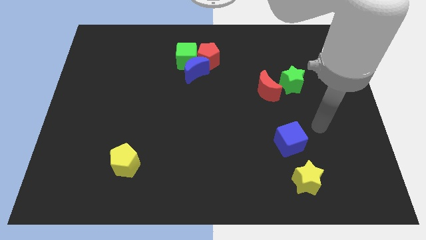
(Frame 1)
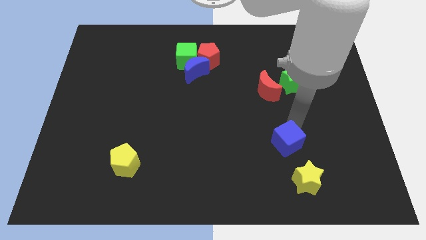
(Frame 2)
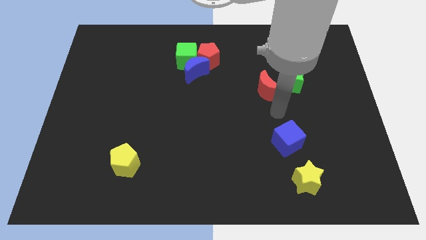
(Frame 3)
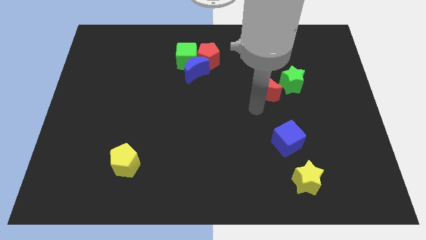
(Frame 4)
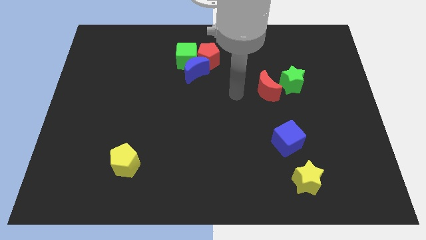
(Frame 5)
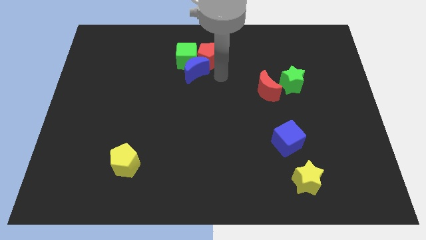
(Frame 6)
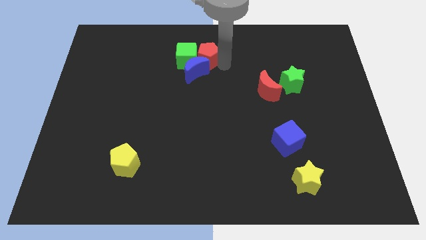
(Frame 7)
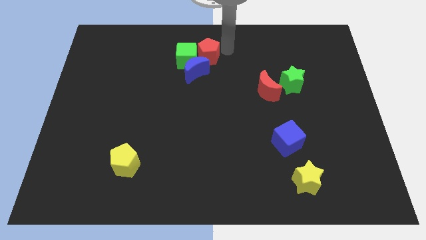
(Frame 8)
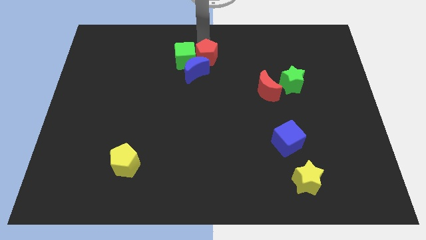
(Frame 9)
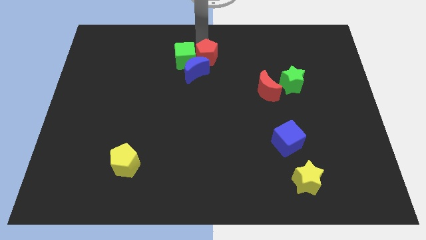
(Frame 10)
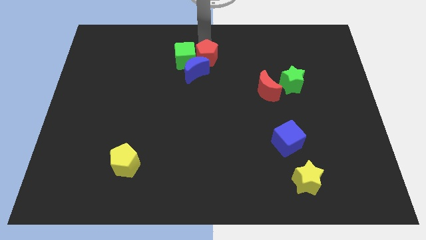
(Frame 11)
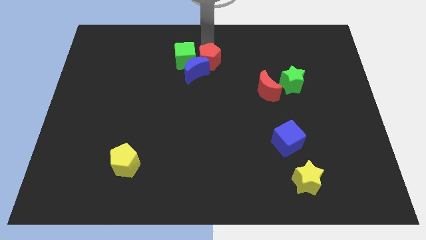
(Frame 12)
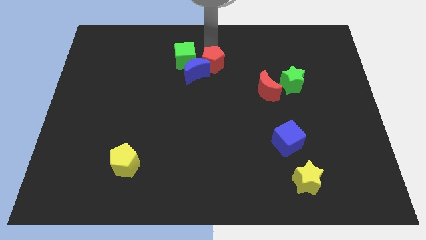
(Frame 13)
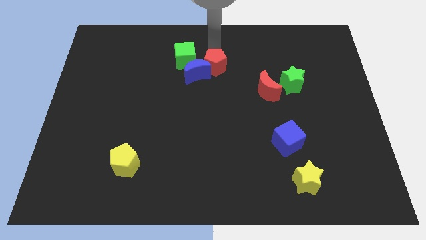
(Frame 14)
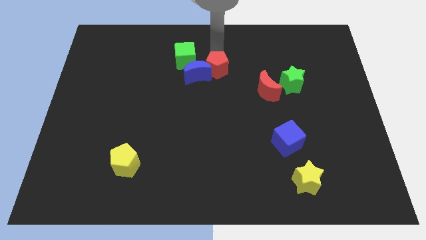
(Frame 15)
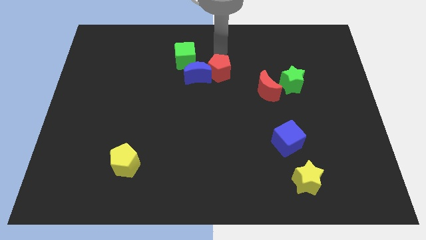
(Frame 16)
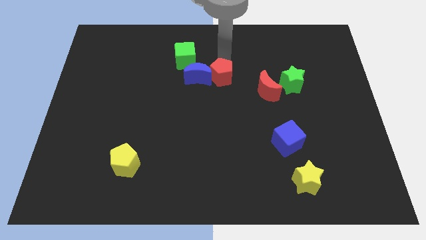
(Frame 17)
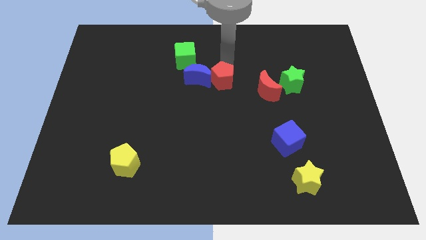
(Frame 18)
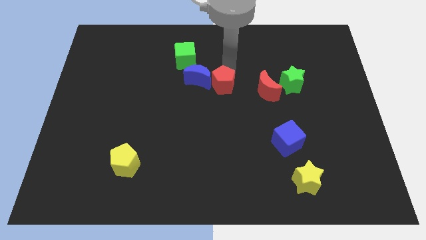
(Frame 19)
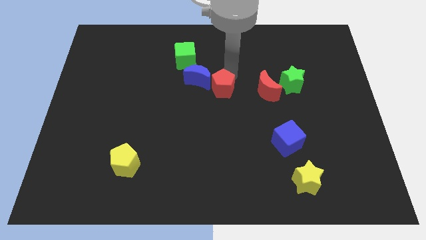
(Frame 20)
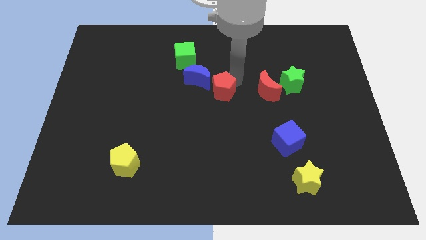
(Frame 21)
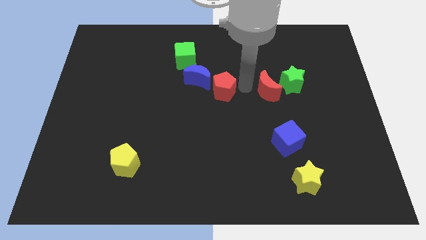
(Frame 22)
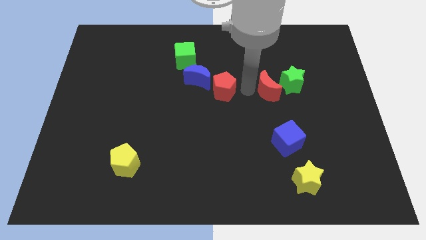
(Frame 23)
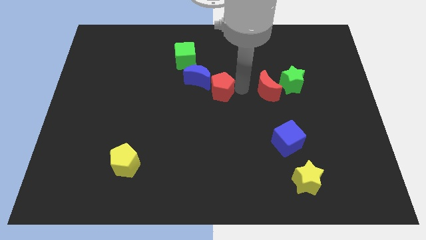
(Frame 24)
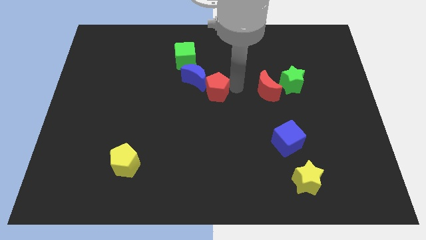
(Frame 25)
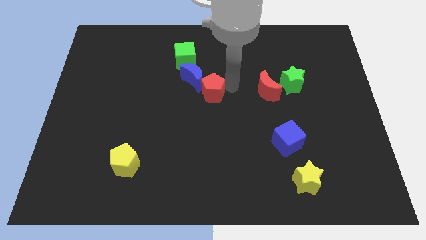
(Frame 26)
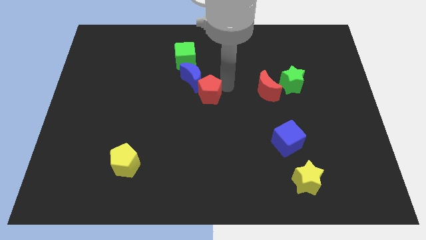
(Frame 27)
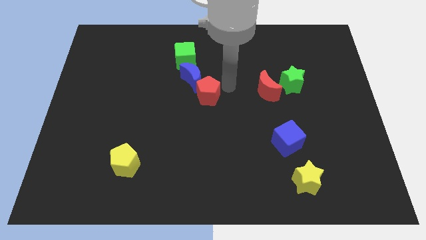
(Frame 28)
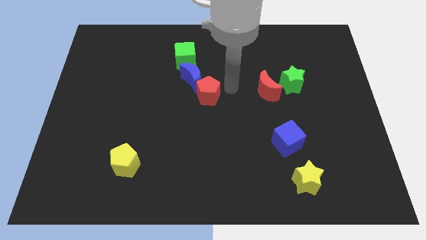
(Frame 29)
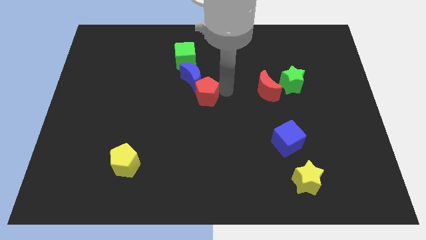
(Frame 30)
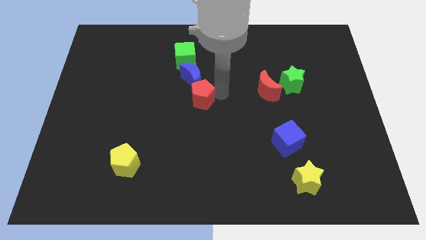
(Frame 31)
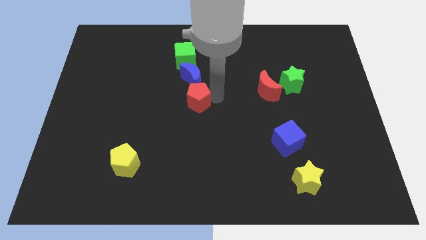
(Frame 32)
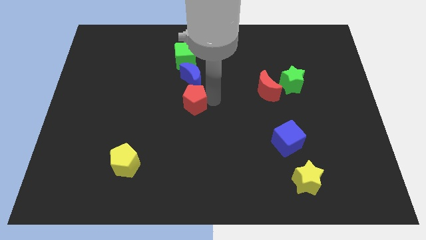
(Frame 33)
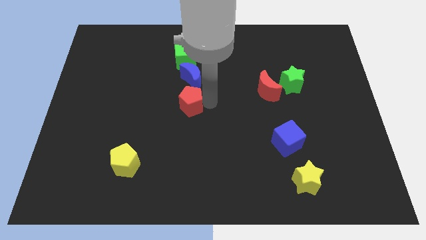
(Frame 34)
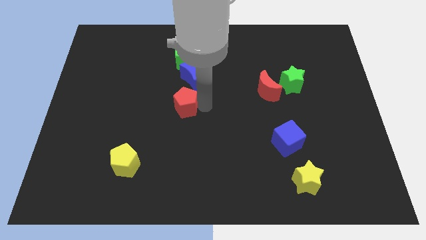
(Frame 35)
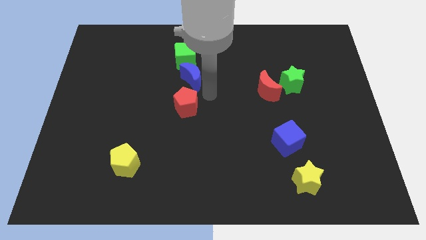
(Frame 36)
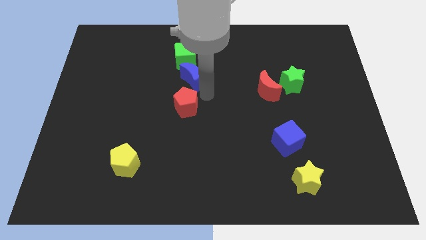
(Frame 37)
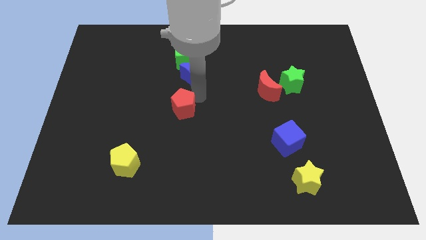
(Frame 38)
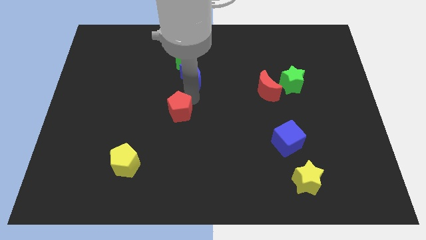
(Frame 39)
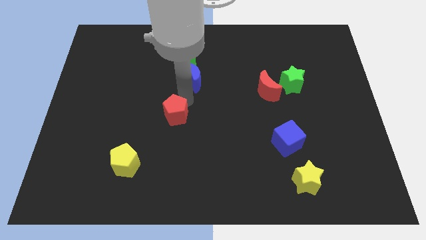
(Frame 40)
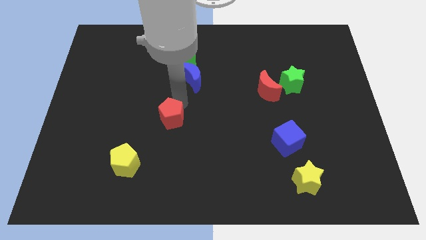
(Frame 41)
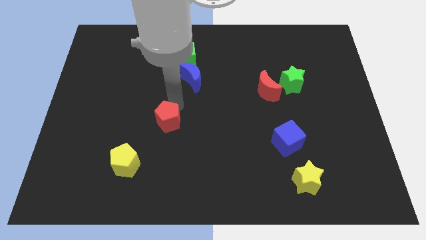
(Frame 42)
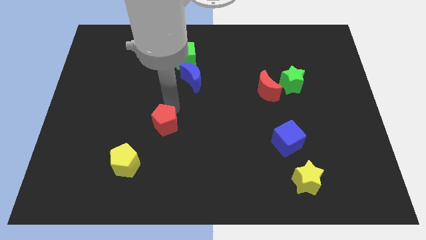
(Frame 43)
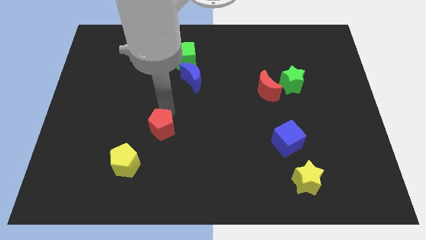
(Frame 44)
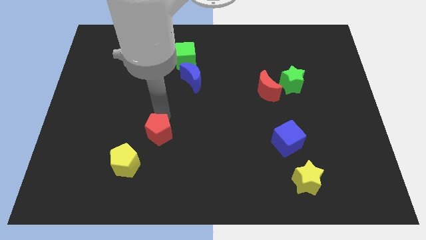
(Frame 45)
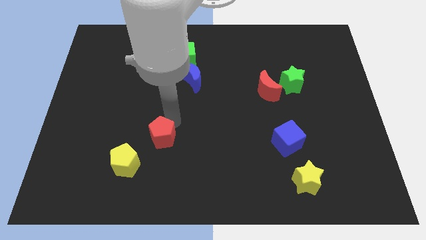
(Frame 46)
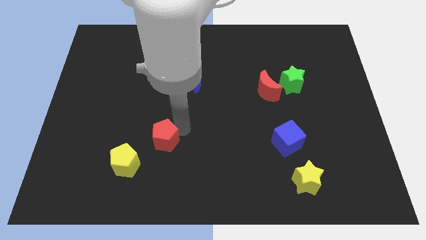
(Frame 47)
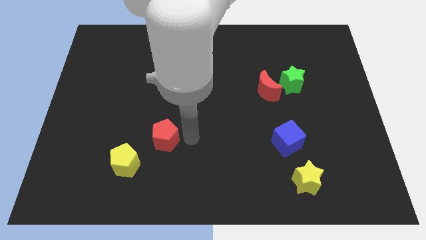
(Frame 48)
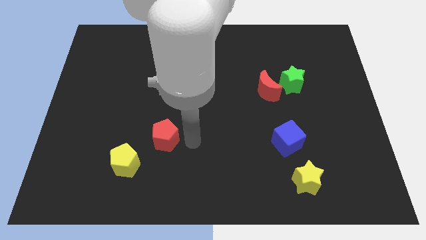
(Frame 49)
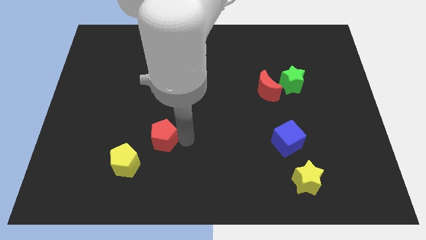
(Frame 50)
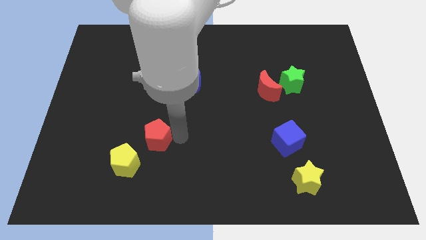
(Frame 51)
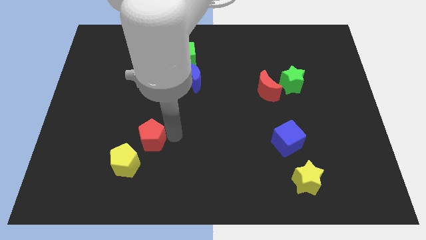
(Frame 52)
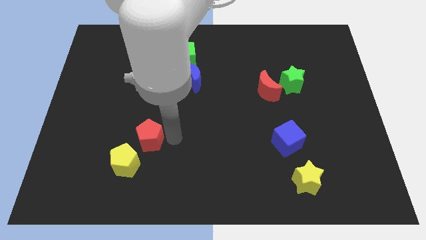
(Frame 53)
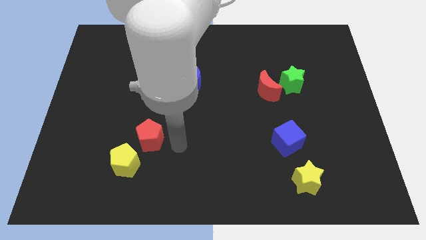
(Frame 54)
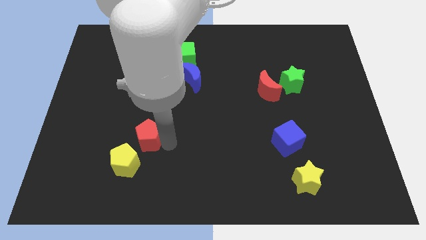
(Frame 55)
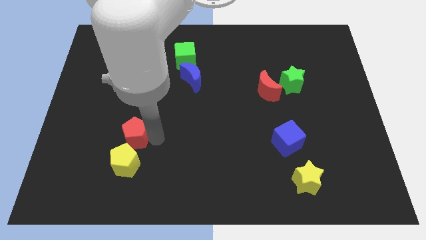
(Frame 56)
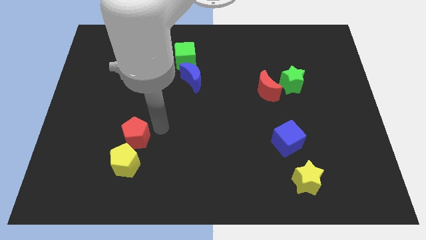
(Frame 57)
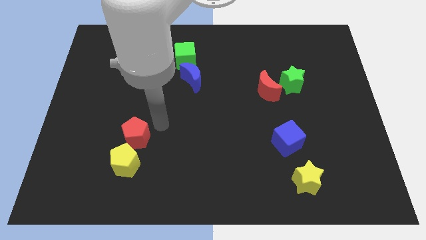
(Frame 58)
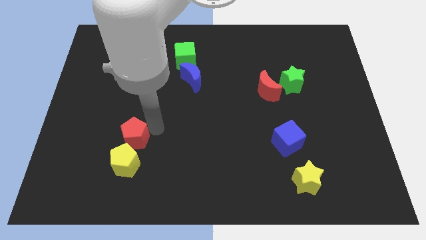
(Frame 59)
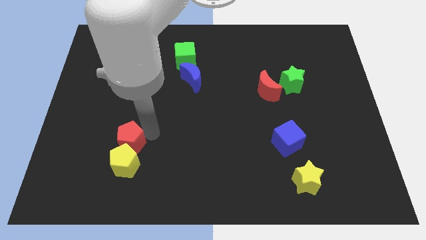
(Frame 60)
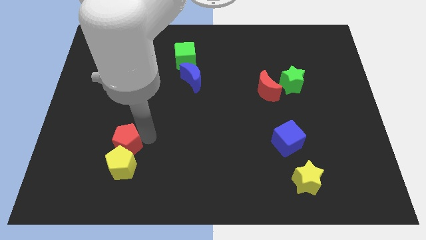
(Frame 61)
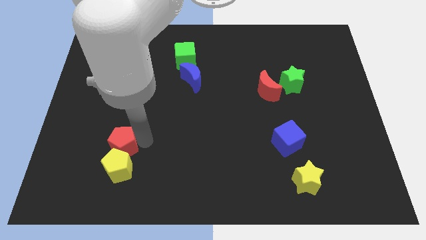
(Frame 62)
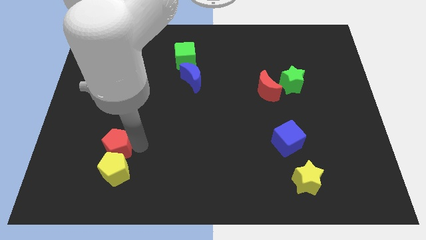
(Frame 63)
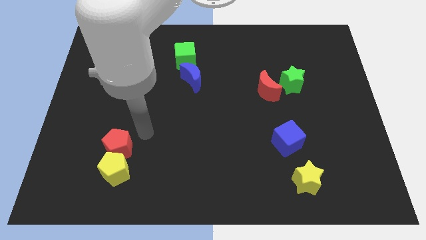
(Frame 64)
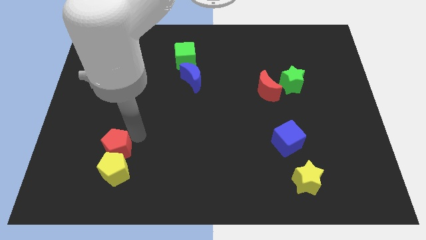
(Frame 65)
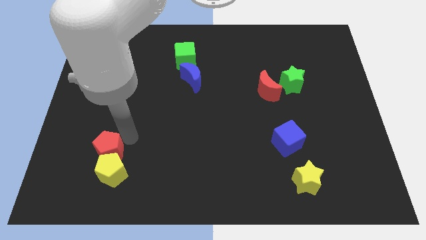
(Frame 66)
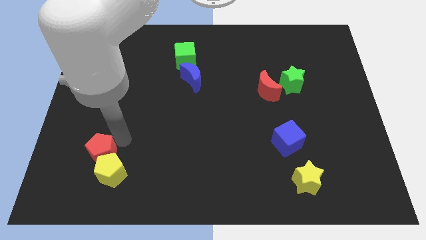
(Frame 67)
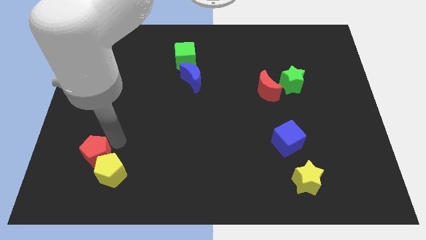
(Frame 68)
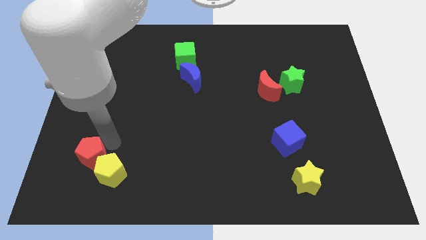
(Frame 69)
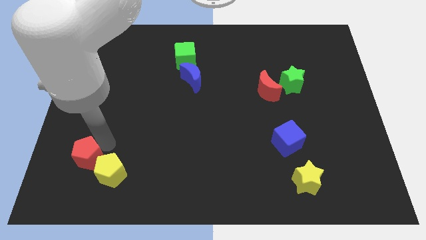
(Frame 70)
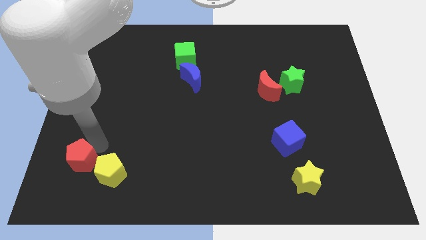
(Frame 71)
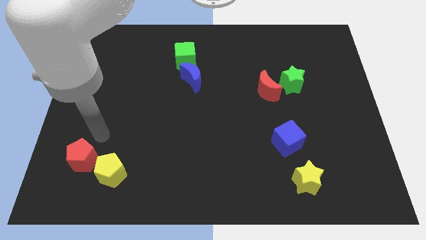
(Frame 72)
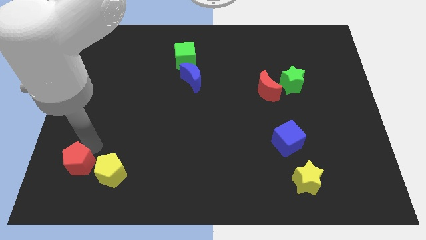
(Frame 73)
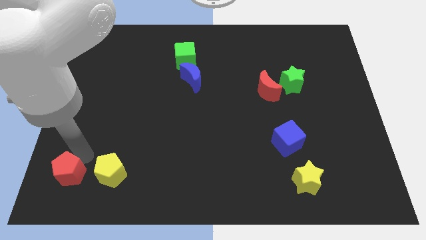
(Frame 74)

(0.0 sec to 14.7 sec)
move the red pentagon to the bottom left corner
